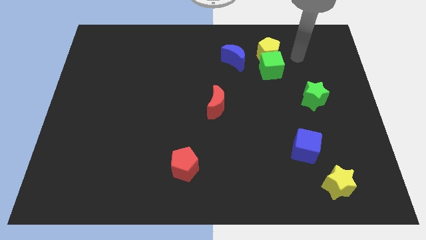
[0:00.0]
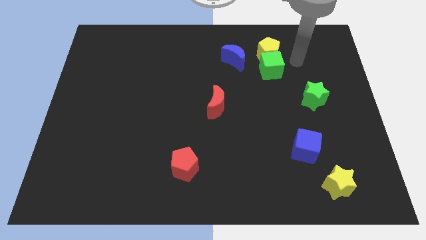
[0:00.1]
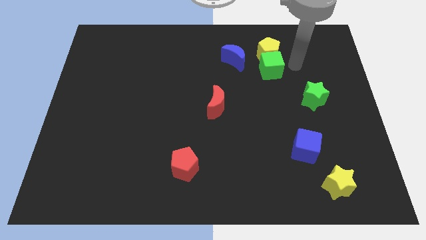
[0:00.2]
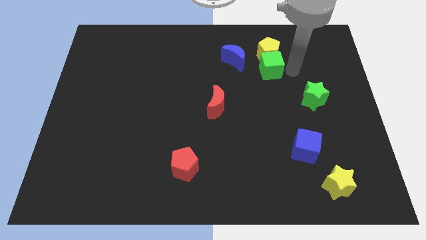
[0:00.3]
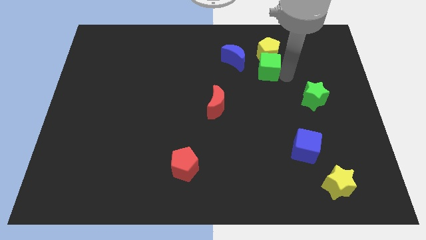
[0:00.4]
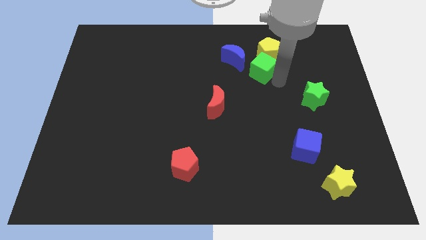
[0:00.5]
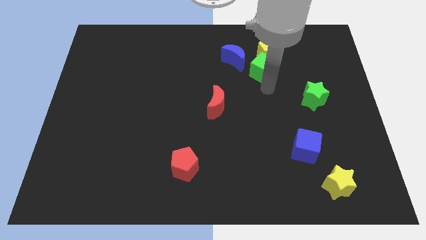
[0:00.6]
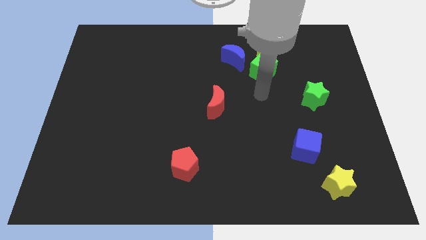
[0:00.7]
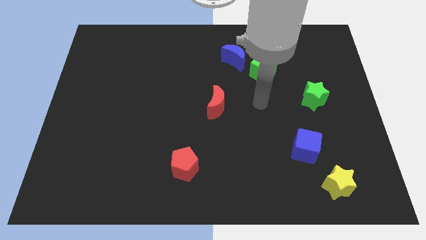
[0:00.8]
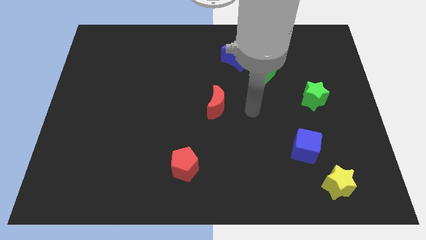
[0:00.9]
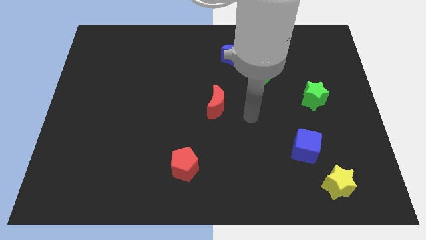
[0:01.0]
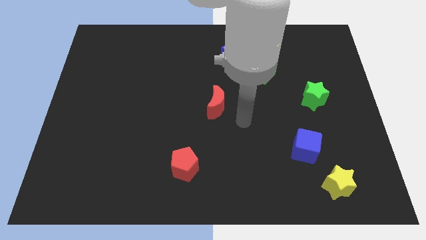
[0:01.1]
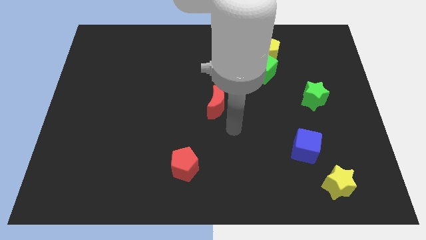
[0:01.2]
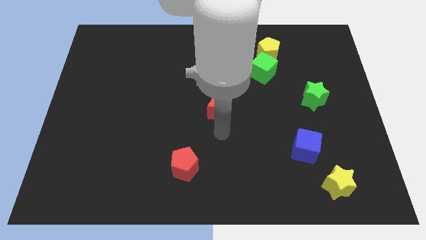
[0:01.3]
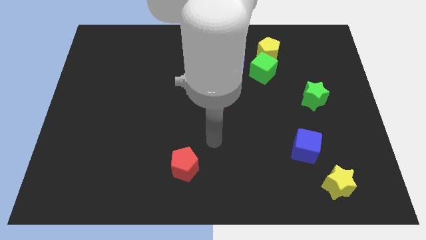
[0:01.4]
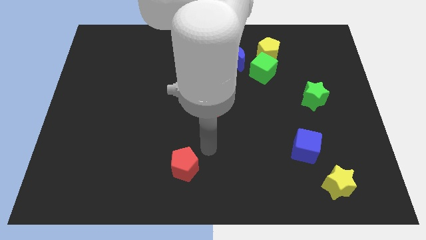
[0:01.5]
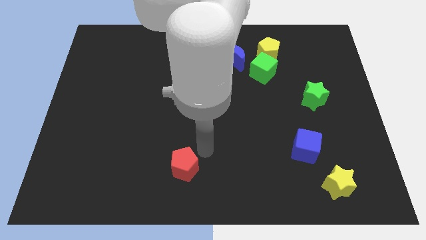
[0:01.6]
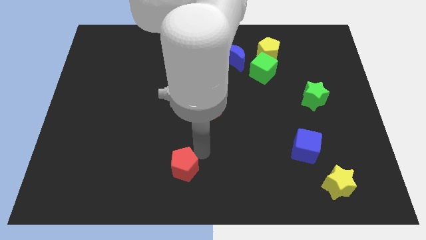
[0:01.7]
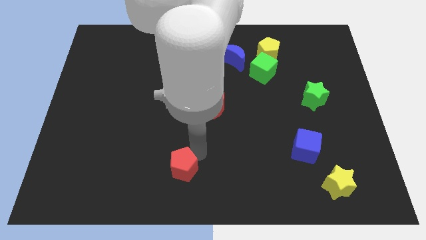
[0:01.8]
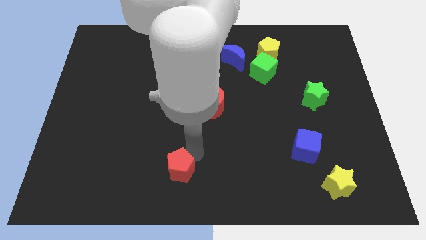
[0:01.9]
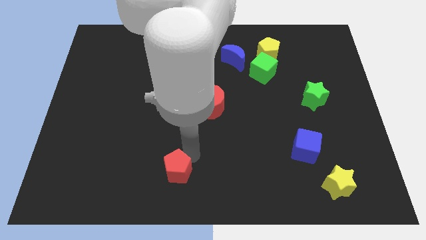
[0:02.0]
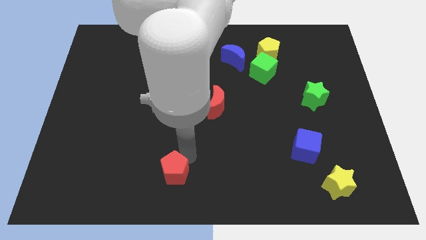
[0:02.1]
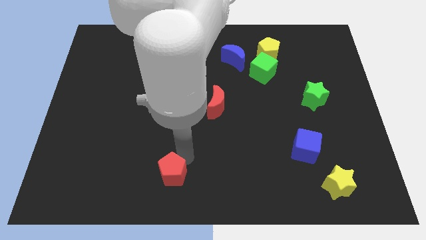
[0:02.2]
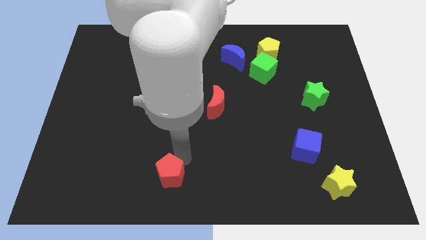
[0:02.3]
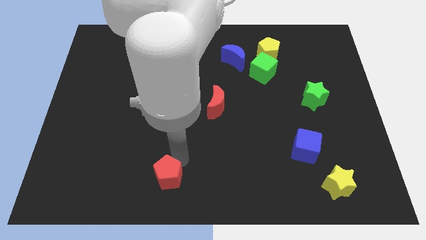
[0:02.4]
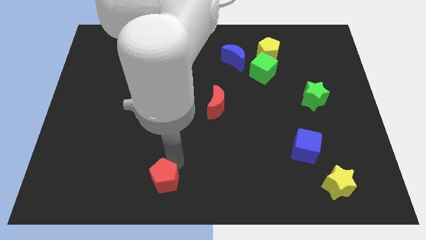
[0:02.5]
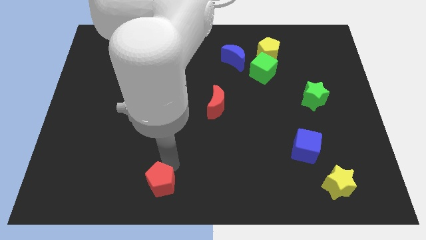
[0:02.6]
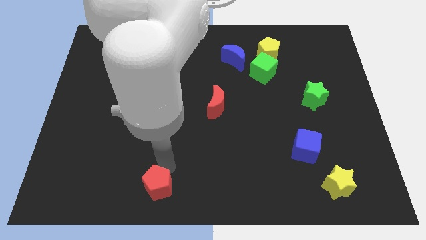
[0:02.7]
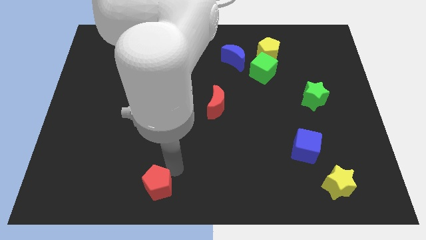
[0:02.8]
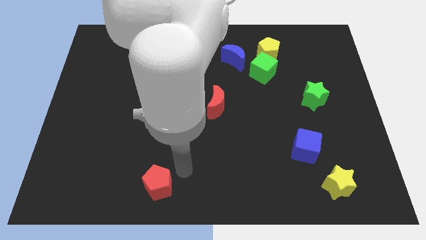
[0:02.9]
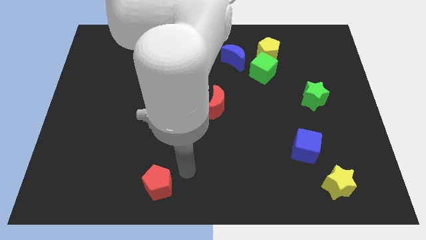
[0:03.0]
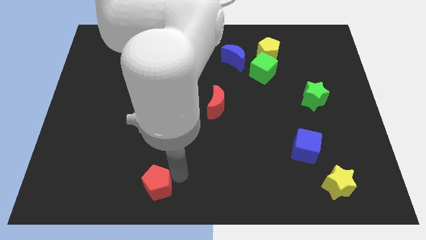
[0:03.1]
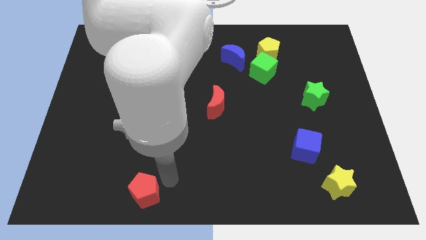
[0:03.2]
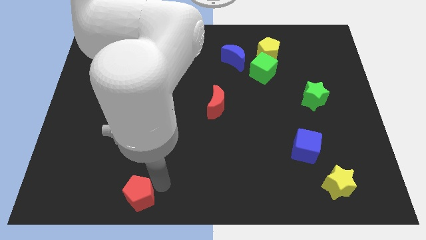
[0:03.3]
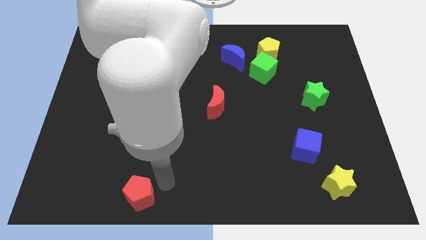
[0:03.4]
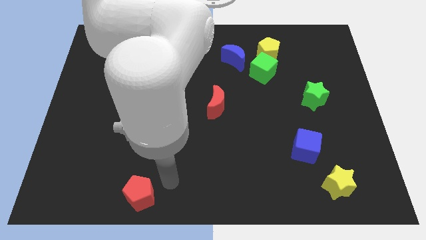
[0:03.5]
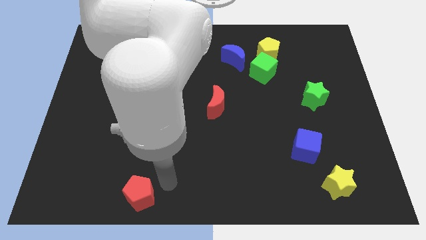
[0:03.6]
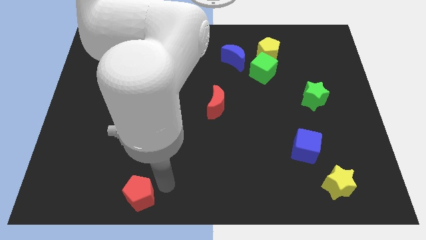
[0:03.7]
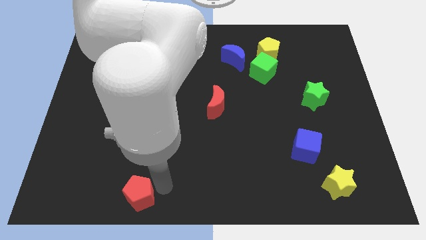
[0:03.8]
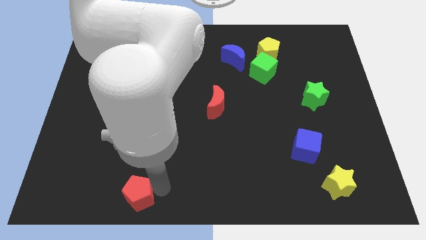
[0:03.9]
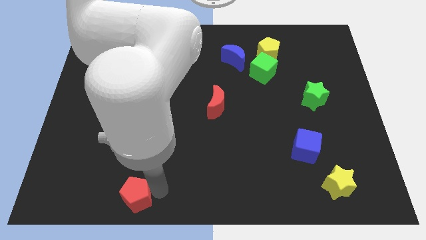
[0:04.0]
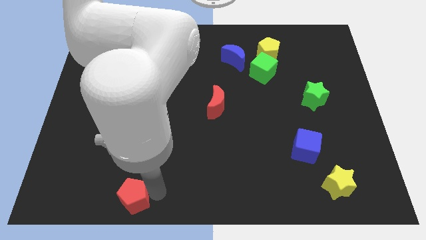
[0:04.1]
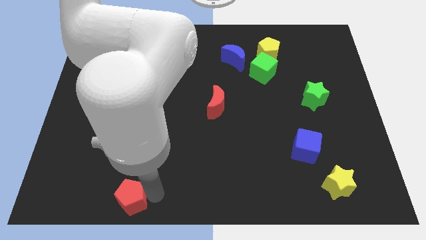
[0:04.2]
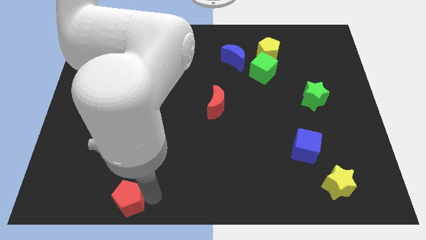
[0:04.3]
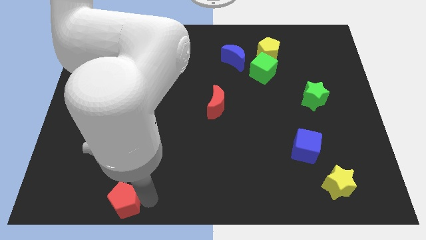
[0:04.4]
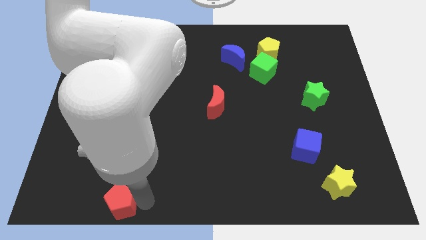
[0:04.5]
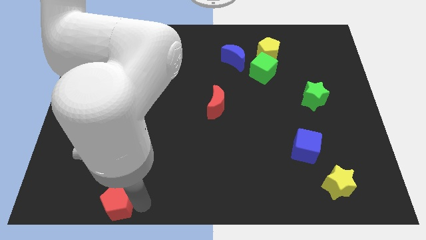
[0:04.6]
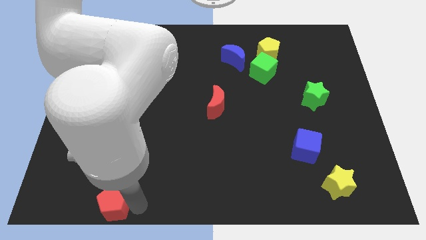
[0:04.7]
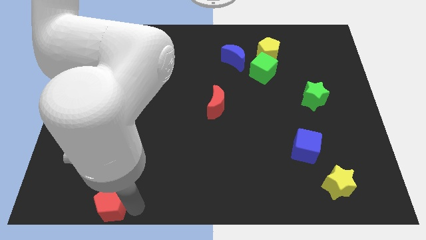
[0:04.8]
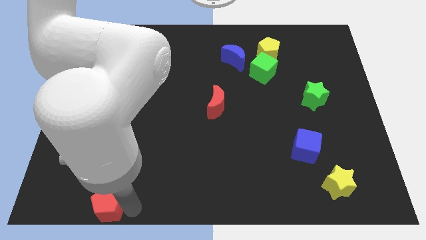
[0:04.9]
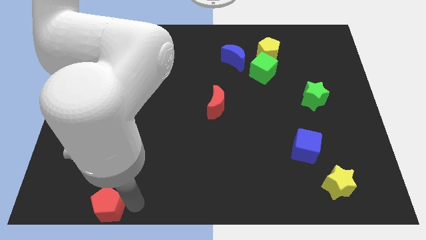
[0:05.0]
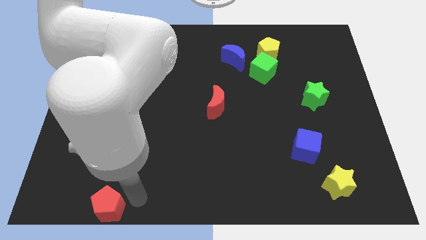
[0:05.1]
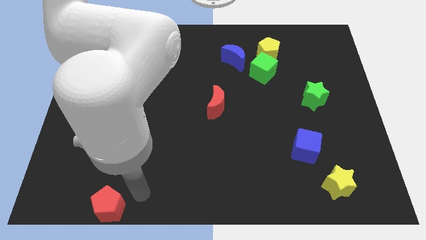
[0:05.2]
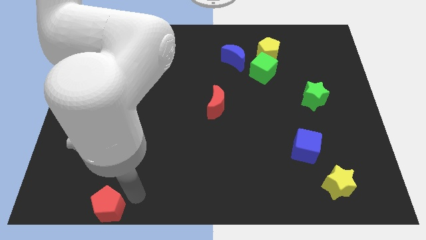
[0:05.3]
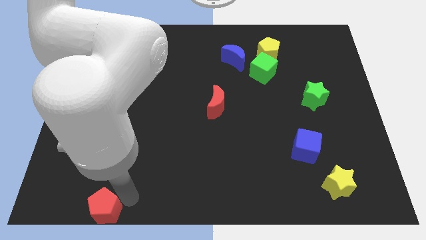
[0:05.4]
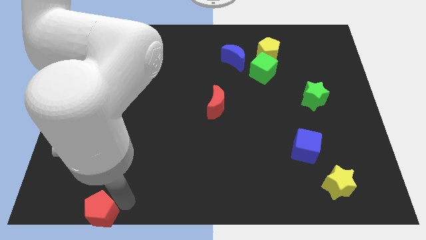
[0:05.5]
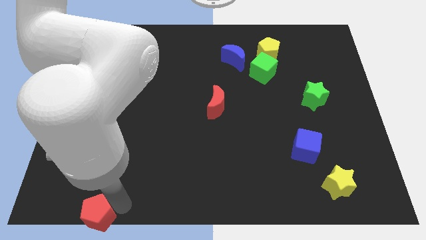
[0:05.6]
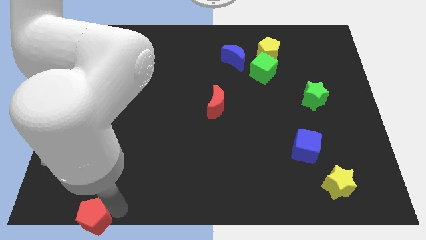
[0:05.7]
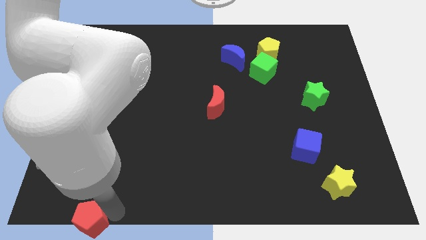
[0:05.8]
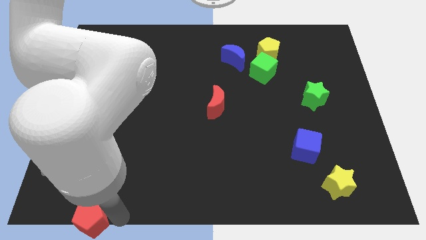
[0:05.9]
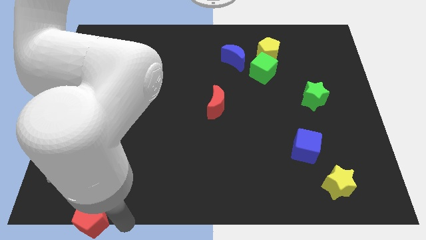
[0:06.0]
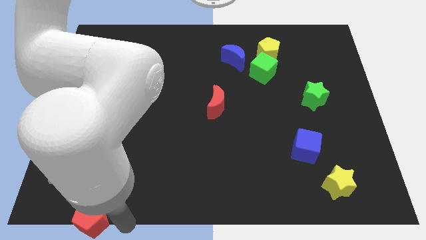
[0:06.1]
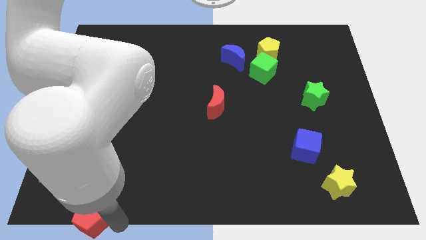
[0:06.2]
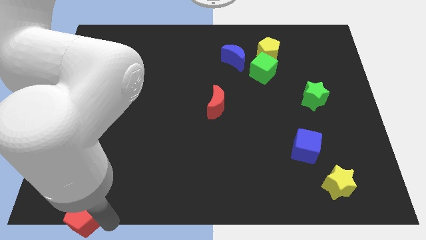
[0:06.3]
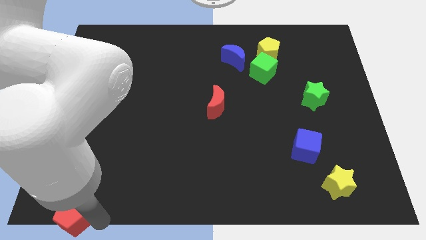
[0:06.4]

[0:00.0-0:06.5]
push the red pentagon to the bottom left of the board

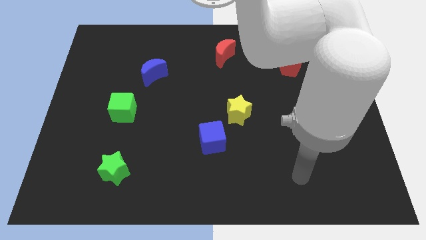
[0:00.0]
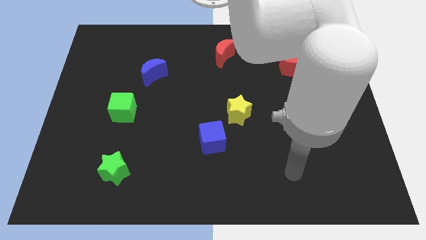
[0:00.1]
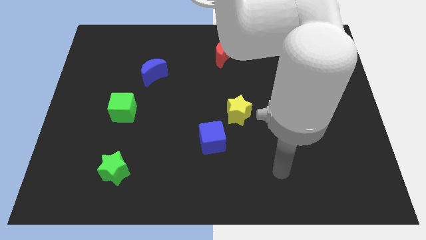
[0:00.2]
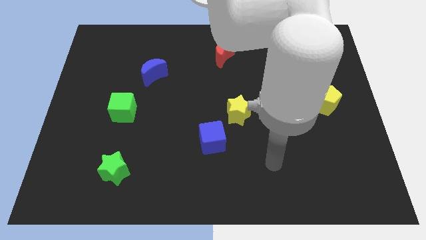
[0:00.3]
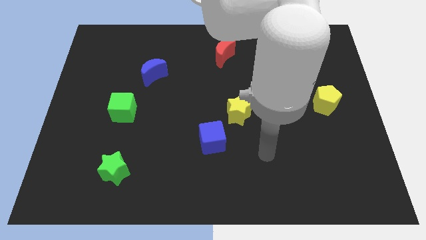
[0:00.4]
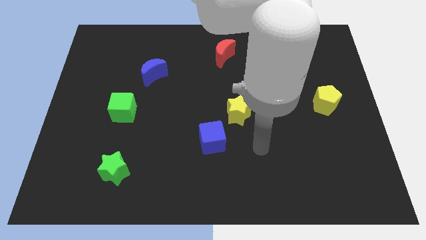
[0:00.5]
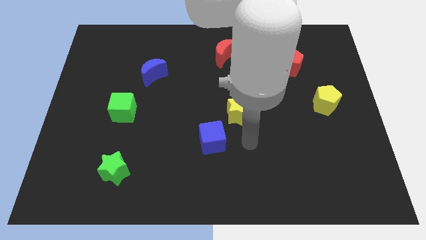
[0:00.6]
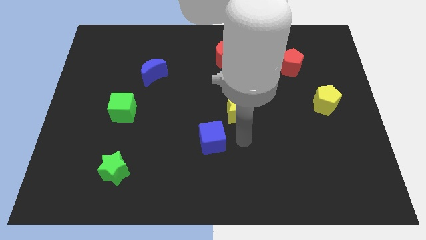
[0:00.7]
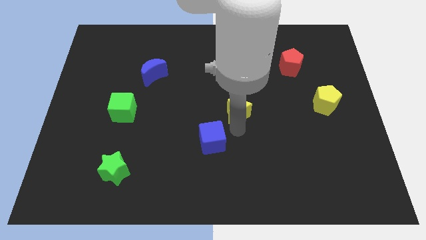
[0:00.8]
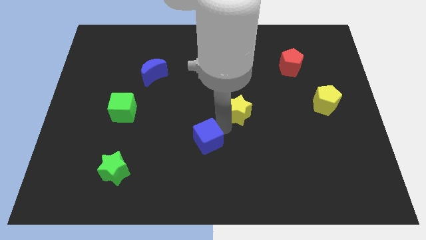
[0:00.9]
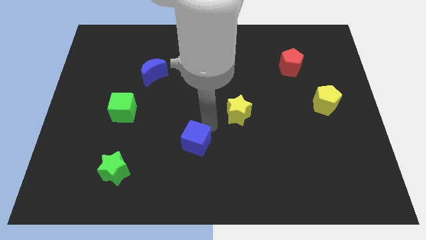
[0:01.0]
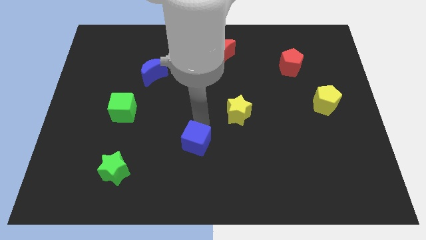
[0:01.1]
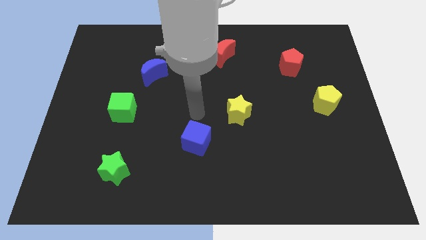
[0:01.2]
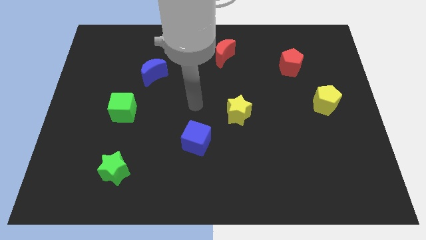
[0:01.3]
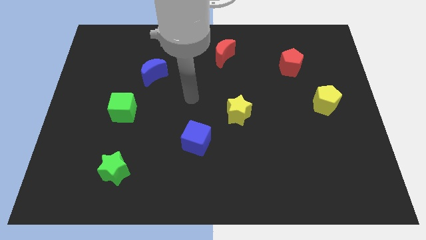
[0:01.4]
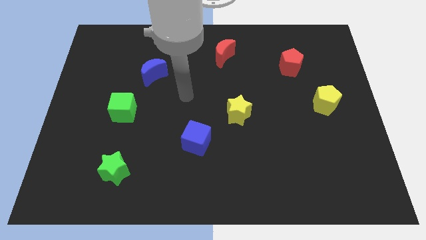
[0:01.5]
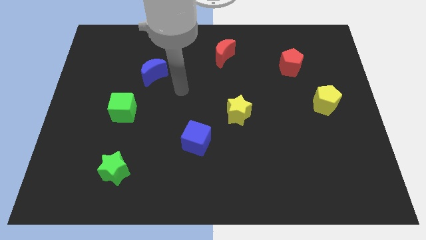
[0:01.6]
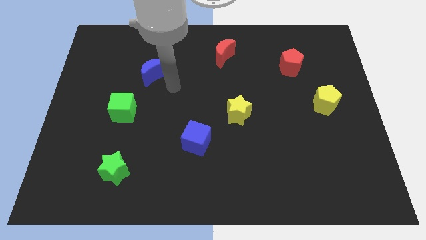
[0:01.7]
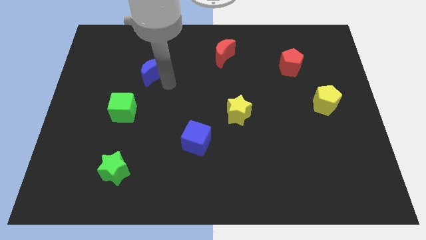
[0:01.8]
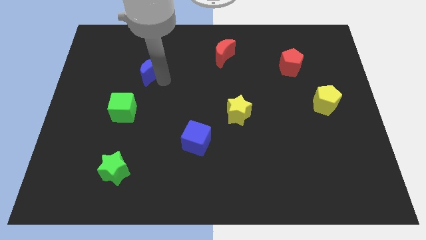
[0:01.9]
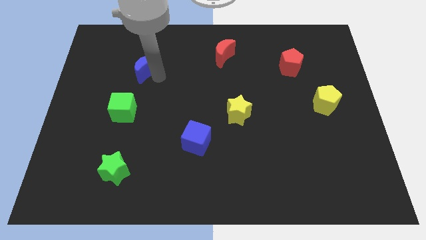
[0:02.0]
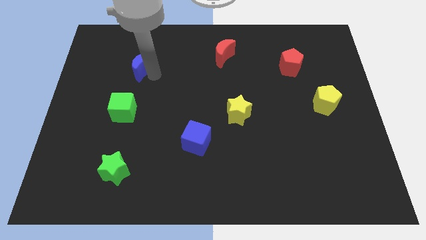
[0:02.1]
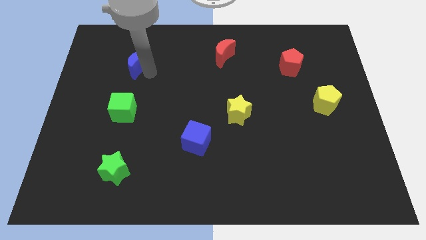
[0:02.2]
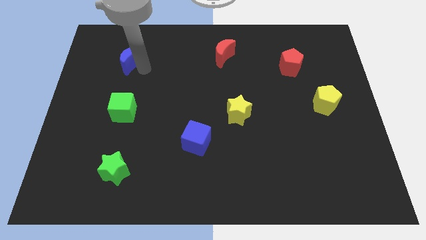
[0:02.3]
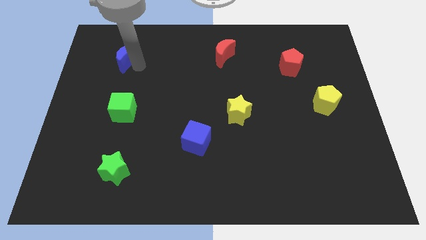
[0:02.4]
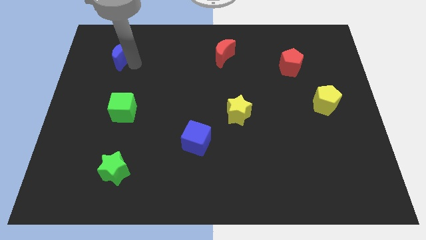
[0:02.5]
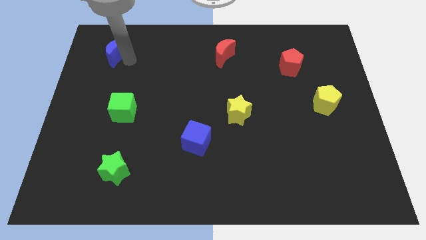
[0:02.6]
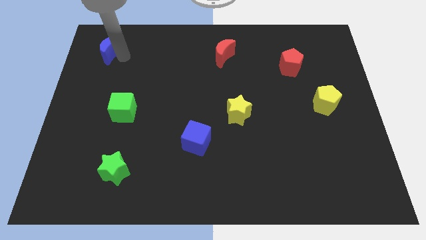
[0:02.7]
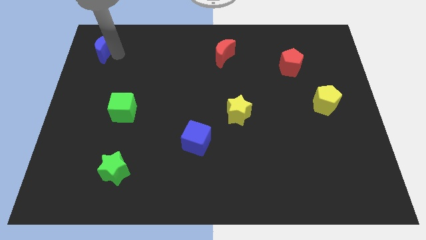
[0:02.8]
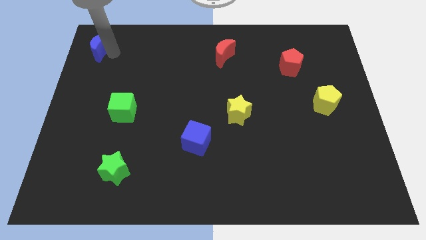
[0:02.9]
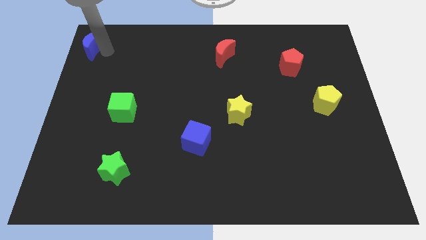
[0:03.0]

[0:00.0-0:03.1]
move the blue moon to the top left
